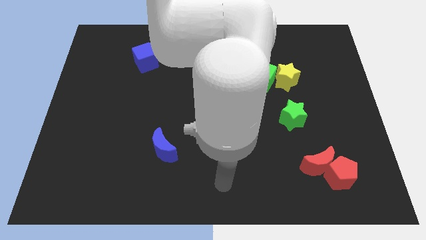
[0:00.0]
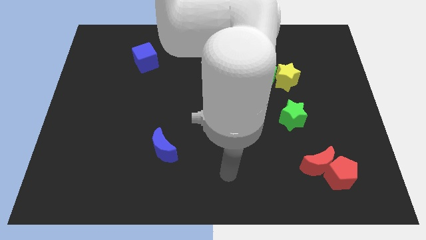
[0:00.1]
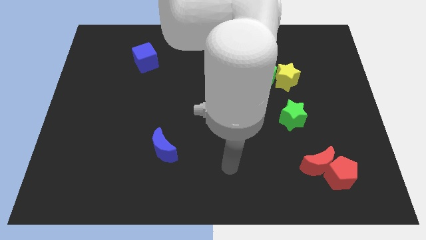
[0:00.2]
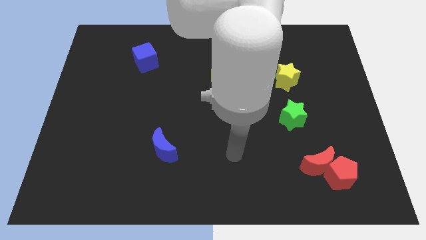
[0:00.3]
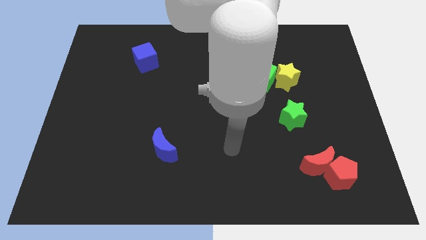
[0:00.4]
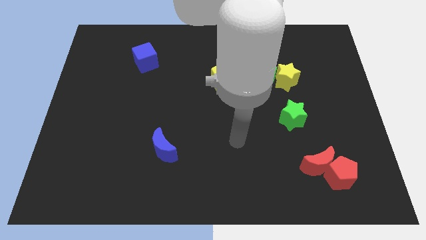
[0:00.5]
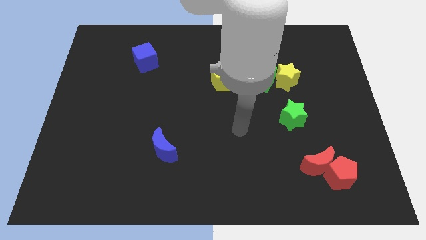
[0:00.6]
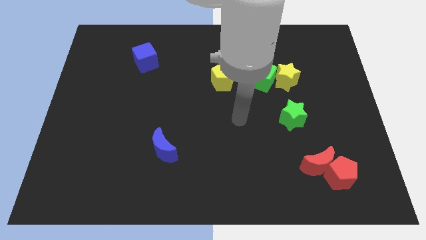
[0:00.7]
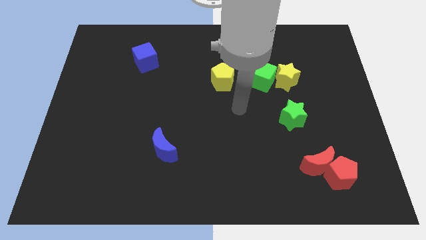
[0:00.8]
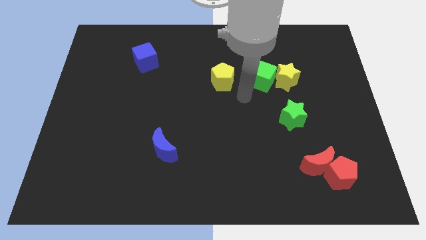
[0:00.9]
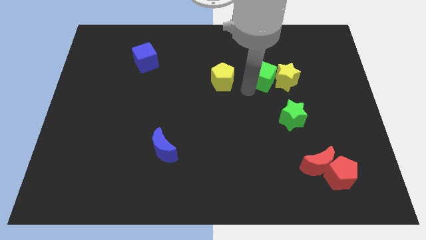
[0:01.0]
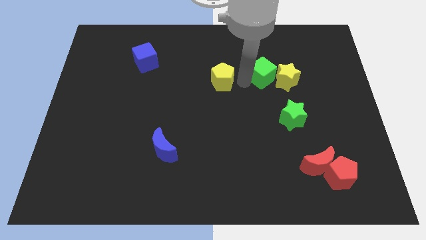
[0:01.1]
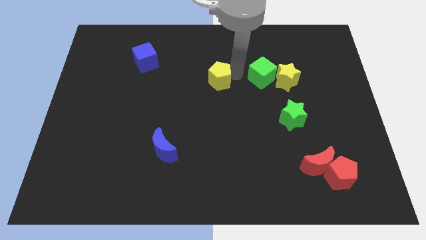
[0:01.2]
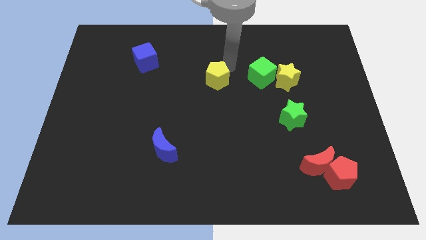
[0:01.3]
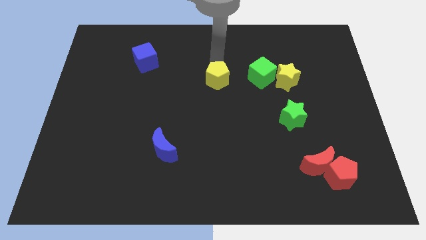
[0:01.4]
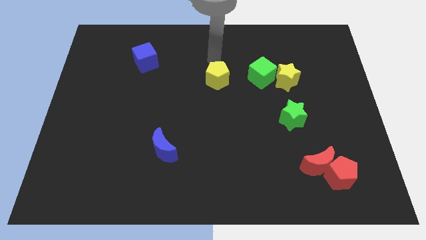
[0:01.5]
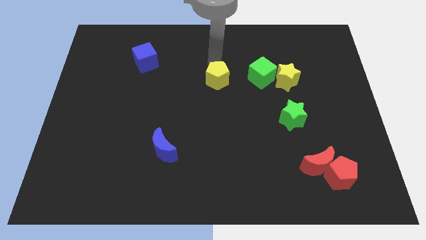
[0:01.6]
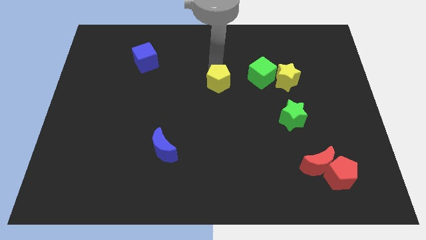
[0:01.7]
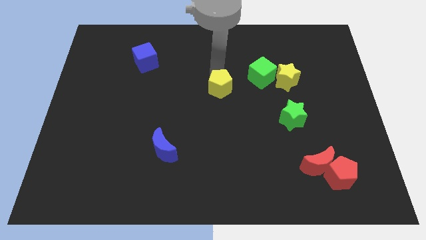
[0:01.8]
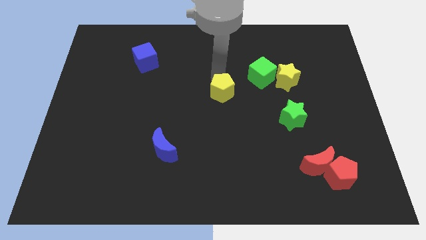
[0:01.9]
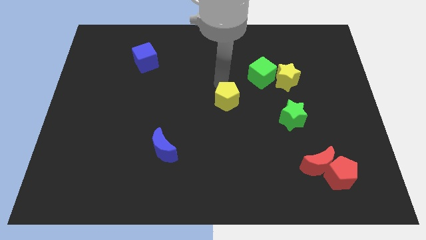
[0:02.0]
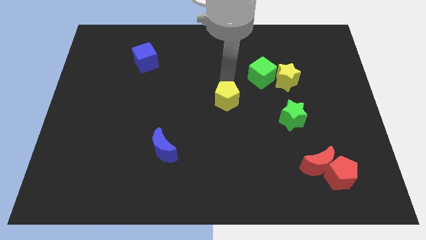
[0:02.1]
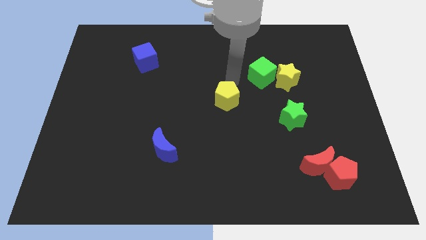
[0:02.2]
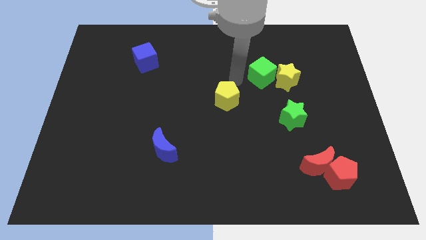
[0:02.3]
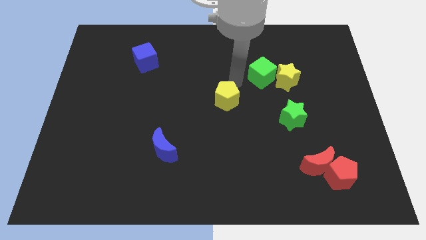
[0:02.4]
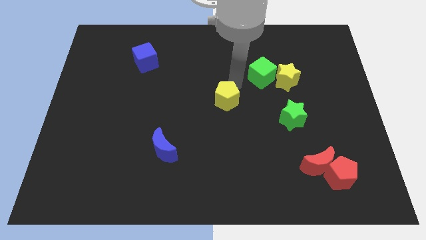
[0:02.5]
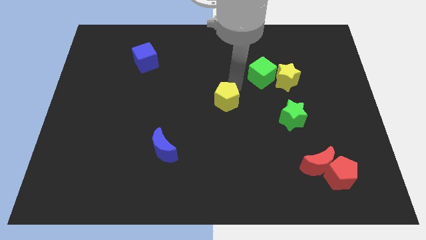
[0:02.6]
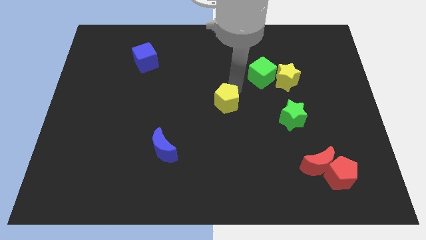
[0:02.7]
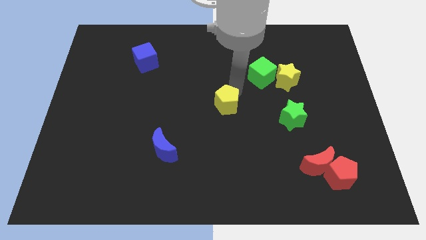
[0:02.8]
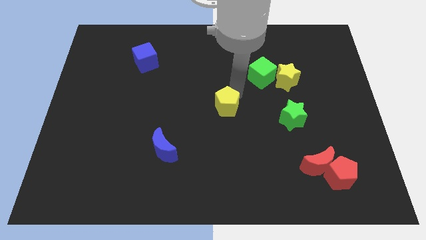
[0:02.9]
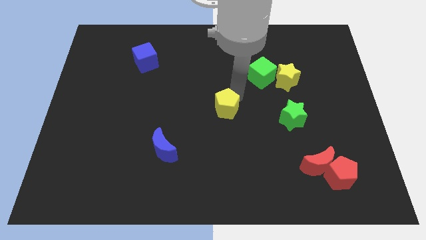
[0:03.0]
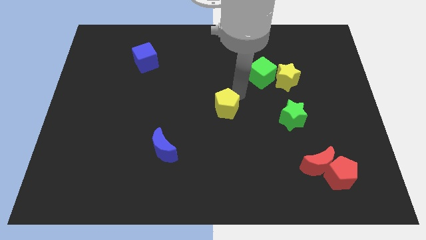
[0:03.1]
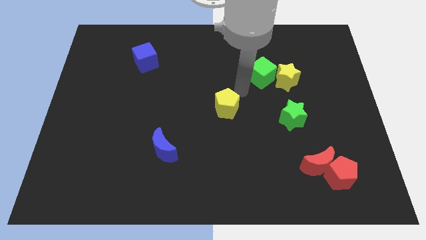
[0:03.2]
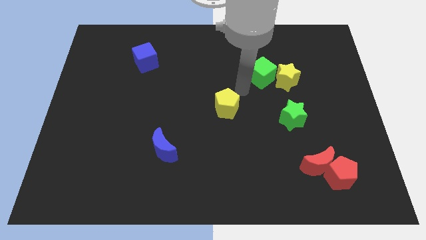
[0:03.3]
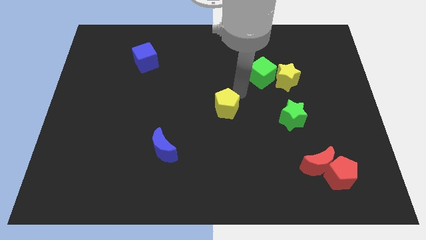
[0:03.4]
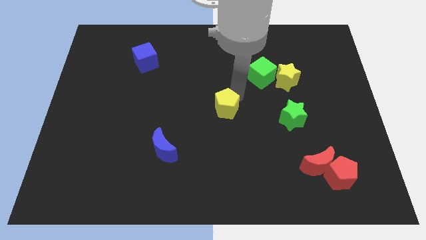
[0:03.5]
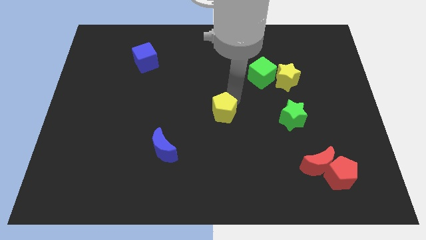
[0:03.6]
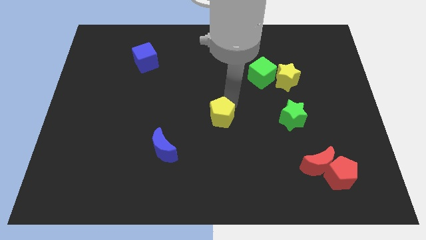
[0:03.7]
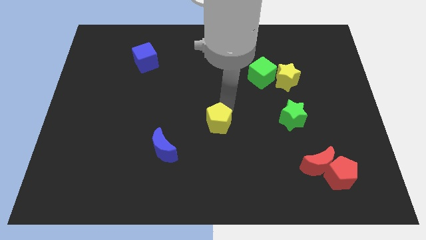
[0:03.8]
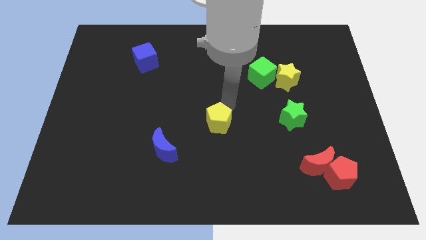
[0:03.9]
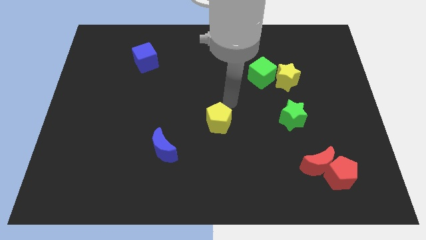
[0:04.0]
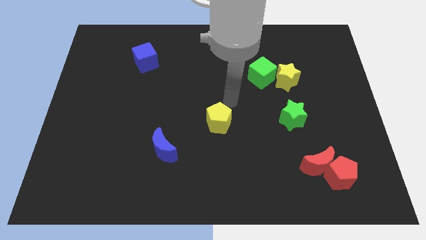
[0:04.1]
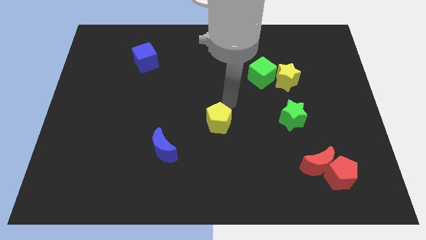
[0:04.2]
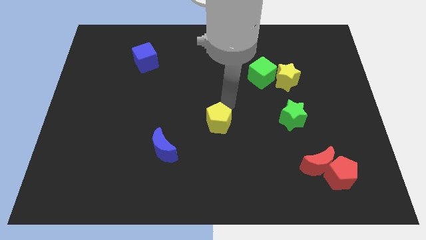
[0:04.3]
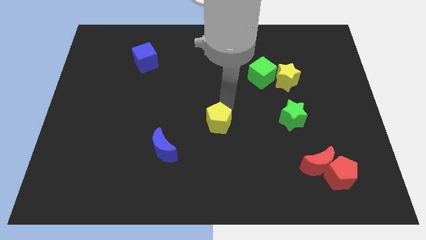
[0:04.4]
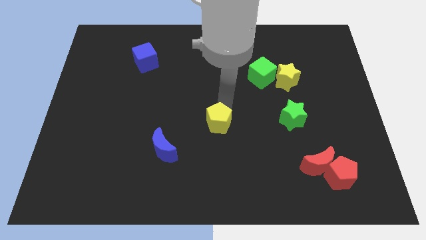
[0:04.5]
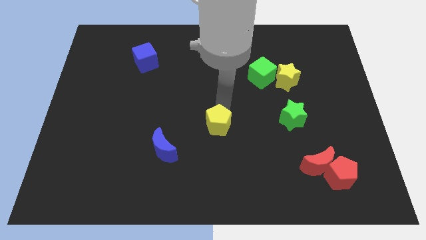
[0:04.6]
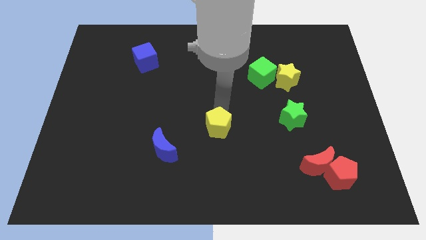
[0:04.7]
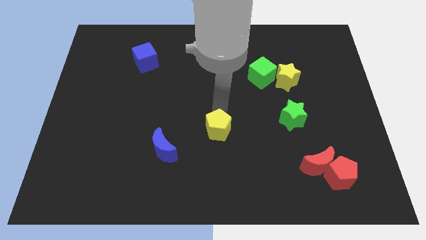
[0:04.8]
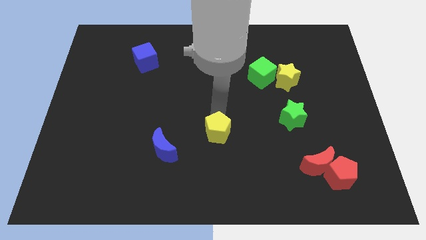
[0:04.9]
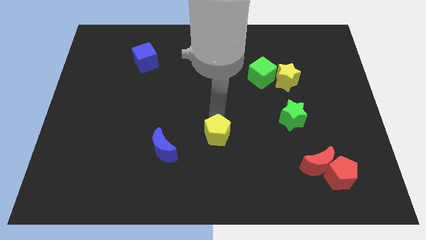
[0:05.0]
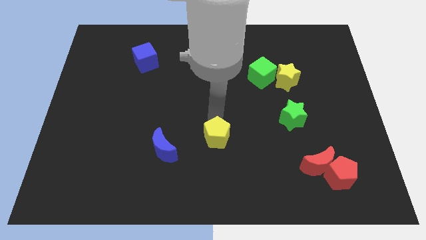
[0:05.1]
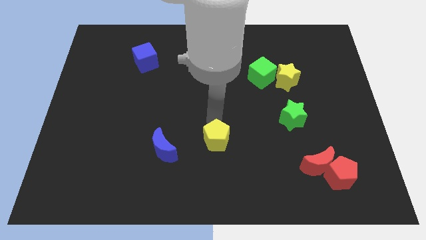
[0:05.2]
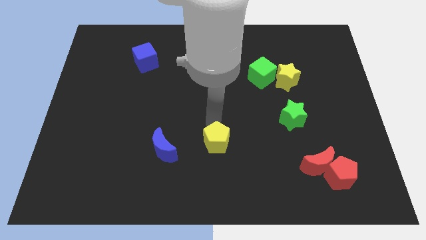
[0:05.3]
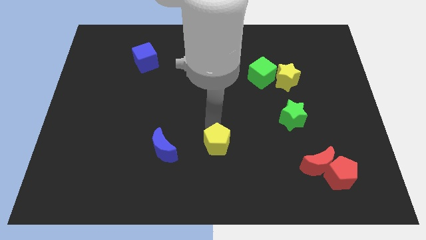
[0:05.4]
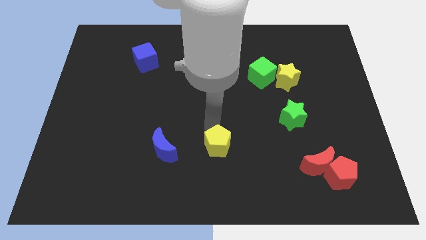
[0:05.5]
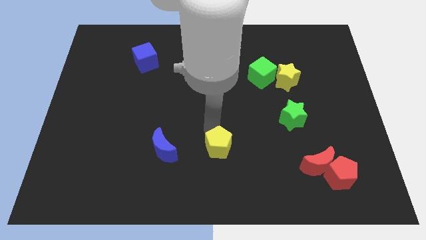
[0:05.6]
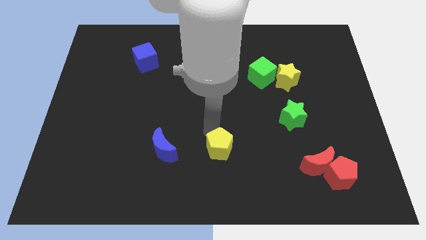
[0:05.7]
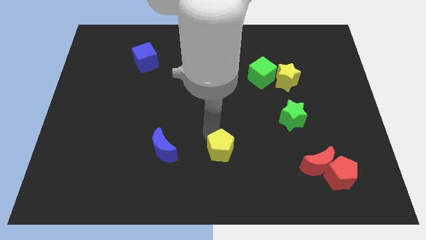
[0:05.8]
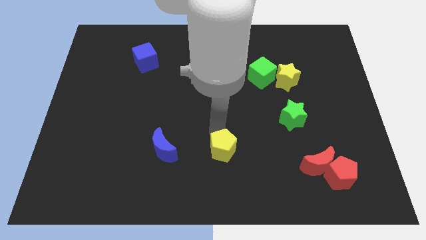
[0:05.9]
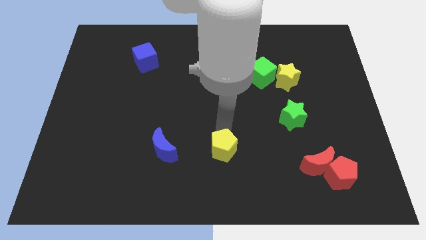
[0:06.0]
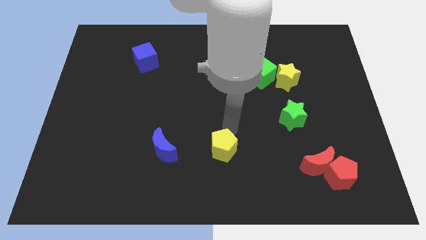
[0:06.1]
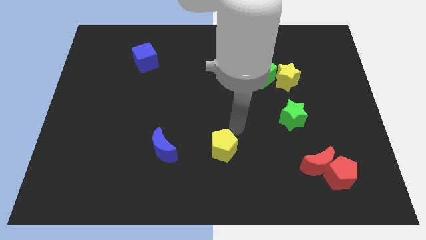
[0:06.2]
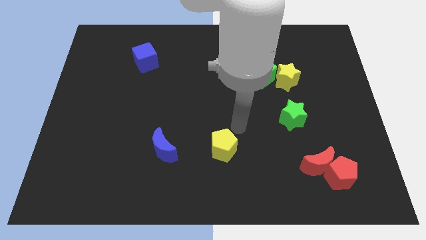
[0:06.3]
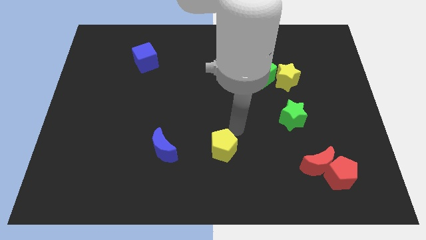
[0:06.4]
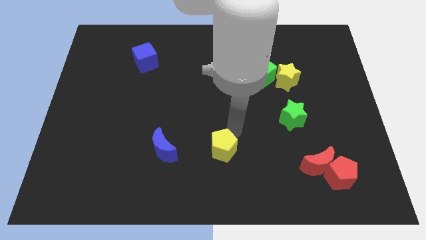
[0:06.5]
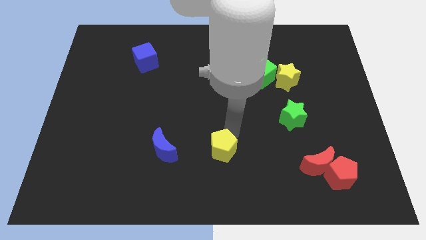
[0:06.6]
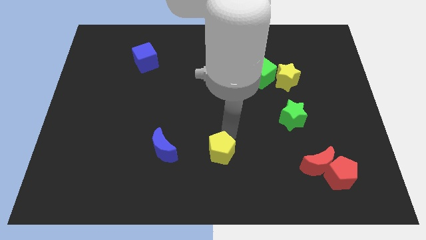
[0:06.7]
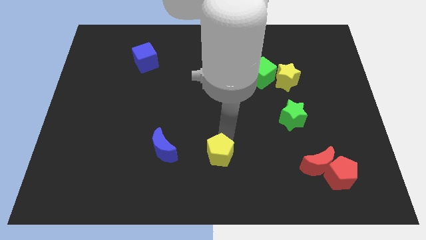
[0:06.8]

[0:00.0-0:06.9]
push the yellow pentagon to the bottom side

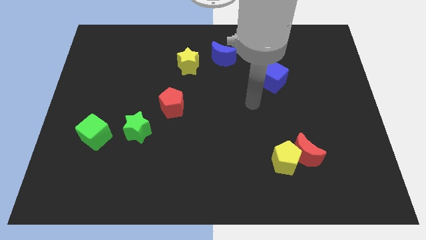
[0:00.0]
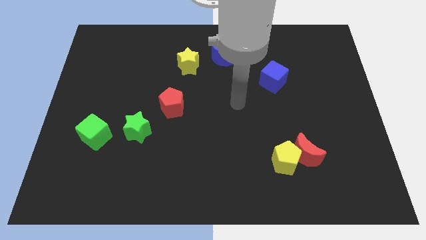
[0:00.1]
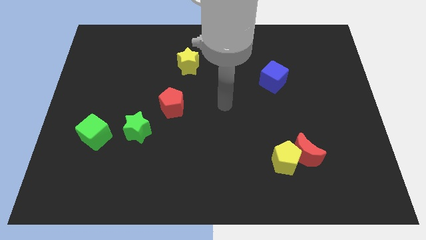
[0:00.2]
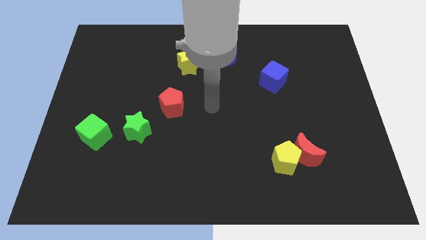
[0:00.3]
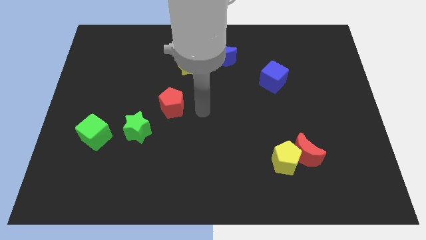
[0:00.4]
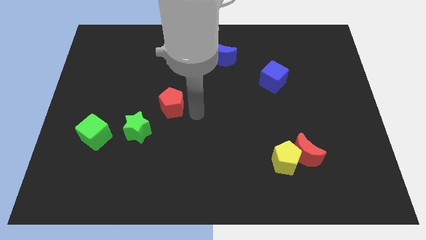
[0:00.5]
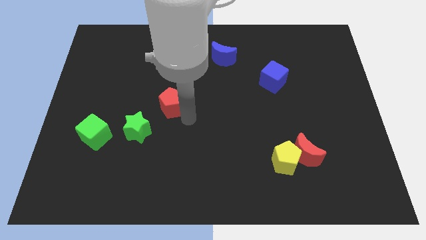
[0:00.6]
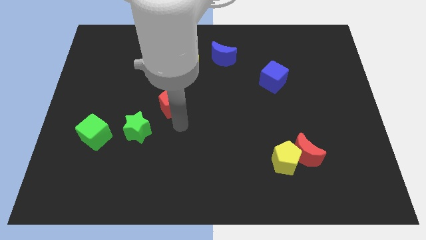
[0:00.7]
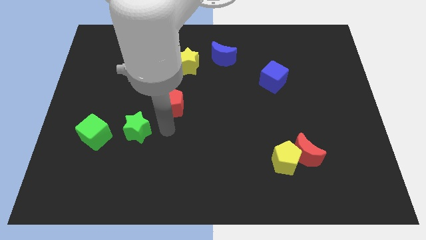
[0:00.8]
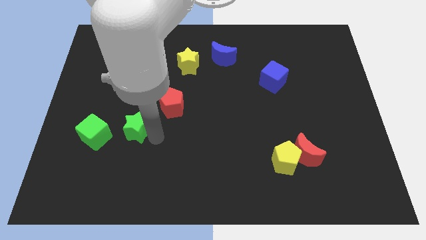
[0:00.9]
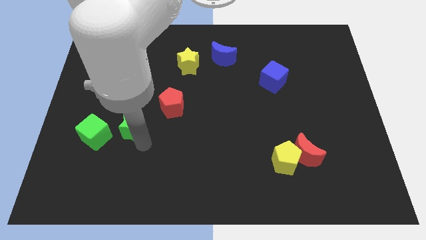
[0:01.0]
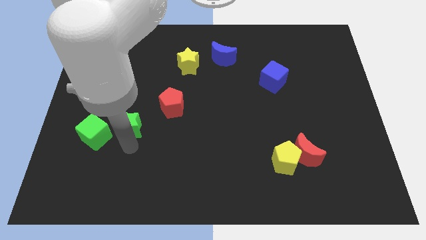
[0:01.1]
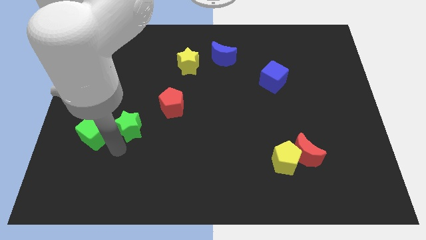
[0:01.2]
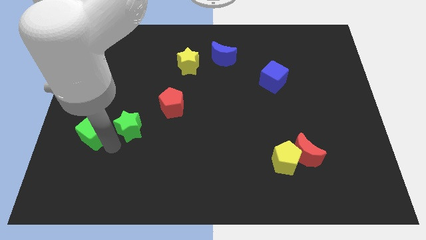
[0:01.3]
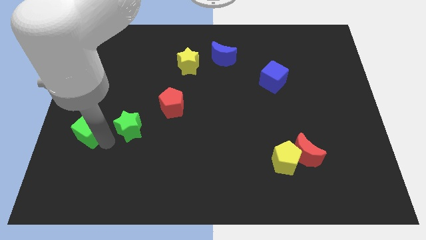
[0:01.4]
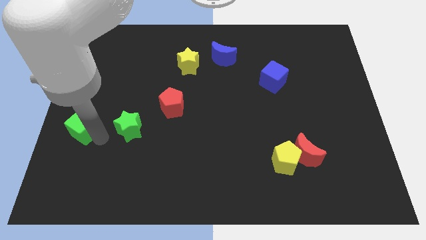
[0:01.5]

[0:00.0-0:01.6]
slide the green cube to the center left
